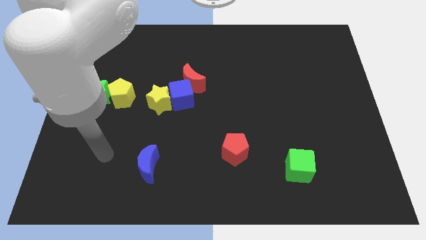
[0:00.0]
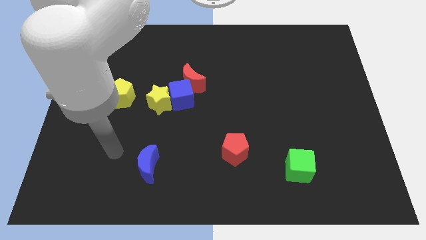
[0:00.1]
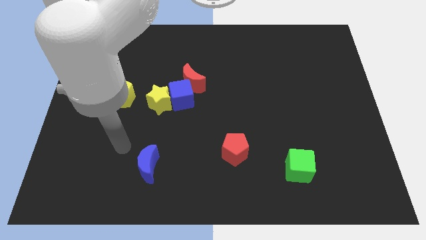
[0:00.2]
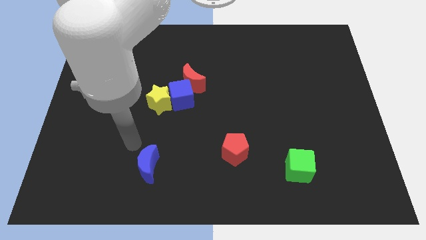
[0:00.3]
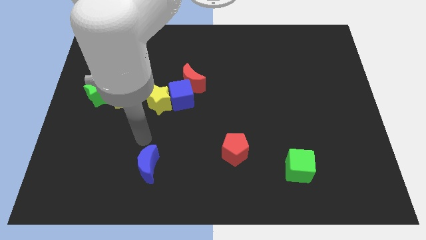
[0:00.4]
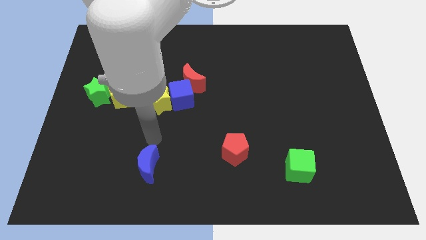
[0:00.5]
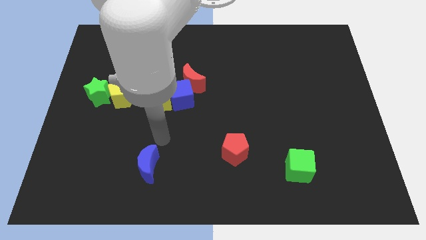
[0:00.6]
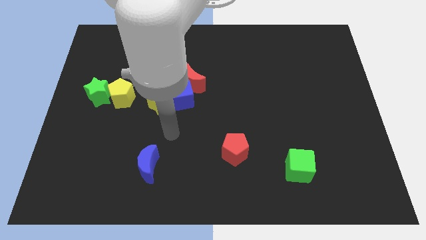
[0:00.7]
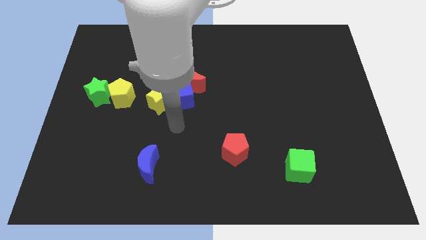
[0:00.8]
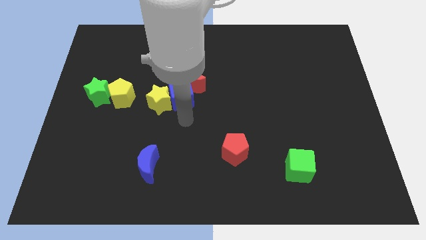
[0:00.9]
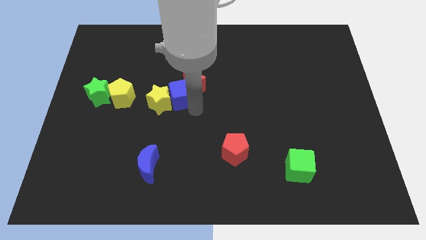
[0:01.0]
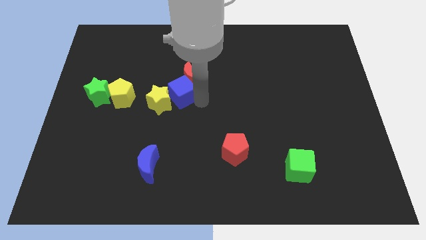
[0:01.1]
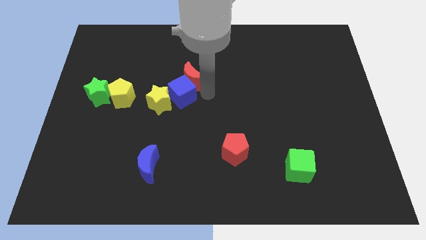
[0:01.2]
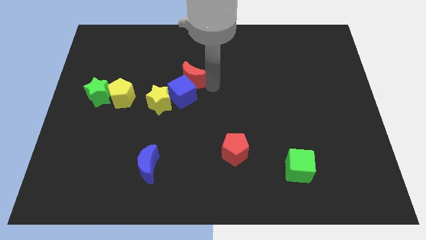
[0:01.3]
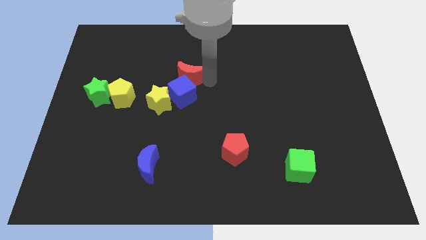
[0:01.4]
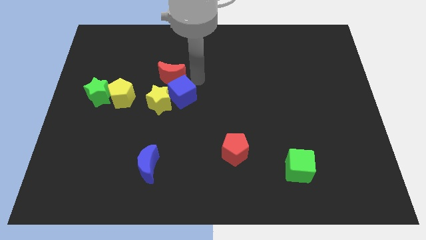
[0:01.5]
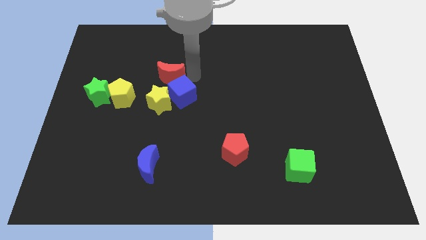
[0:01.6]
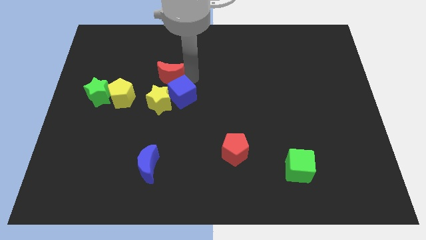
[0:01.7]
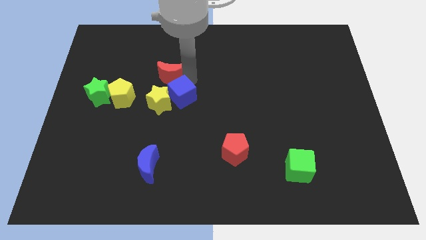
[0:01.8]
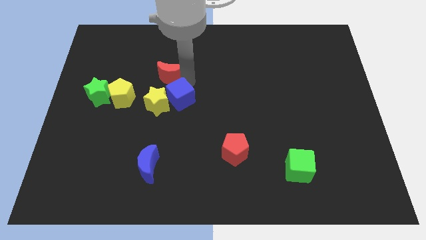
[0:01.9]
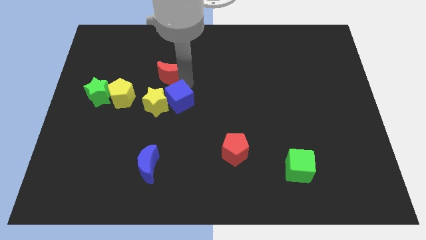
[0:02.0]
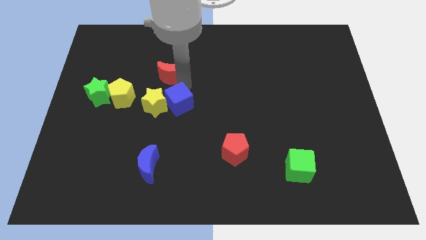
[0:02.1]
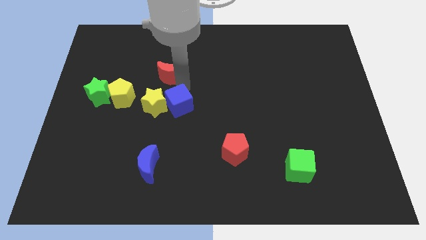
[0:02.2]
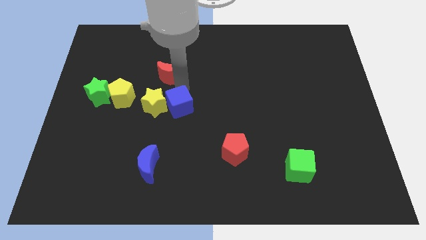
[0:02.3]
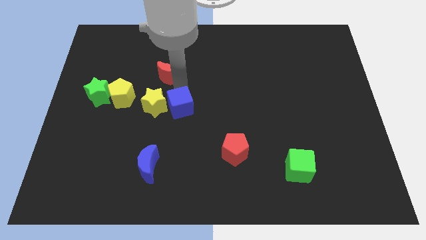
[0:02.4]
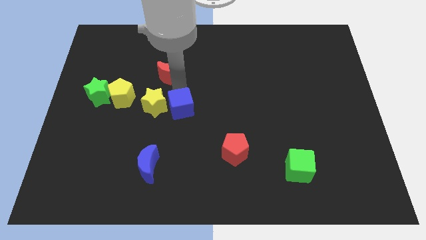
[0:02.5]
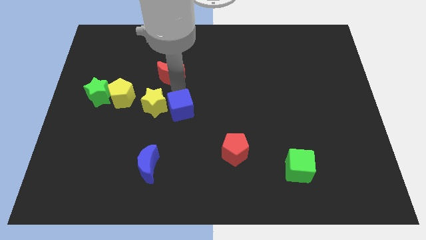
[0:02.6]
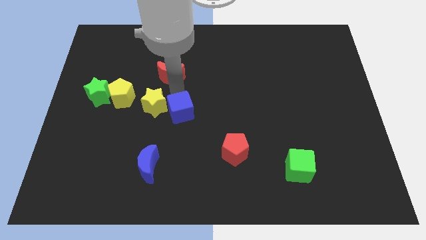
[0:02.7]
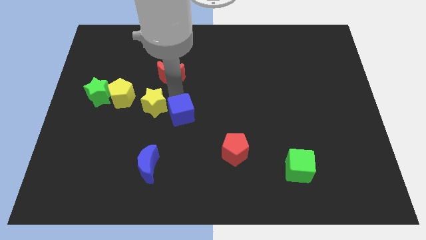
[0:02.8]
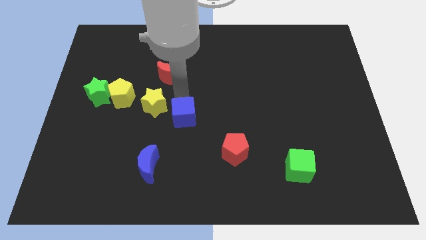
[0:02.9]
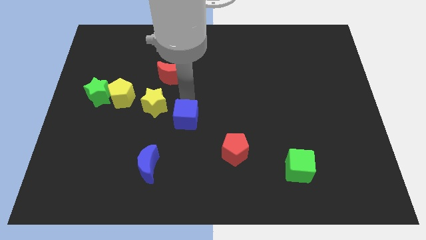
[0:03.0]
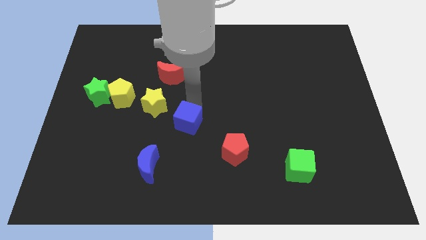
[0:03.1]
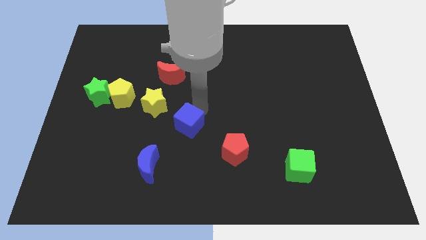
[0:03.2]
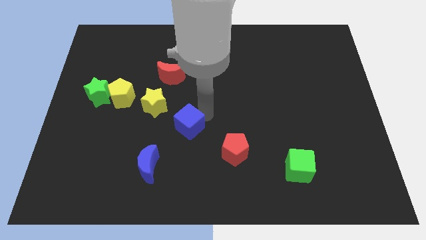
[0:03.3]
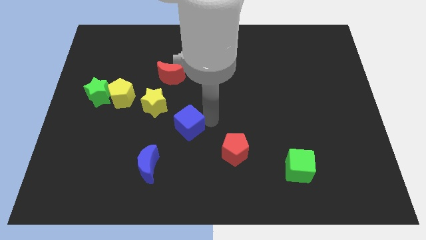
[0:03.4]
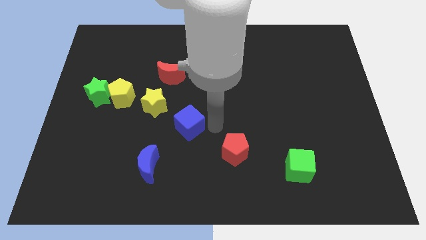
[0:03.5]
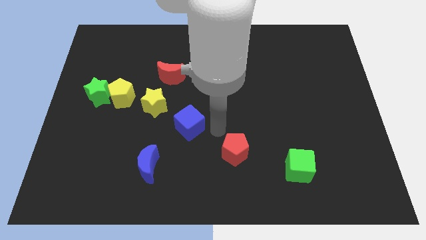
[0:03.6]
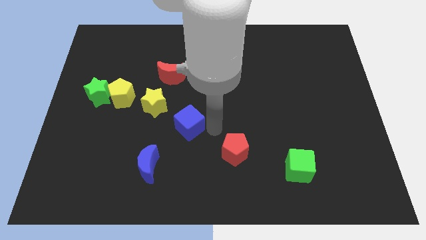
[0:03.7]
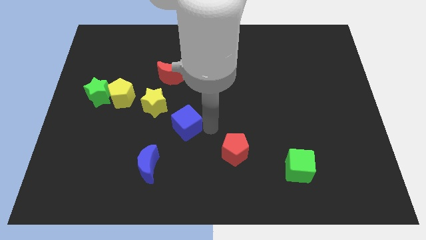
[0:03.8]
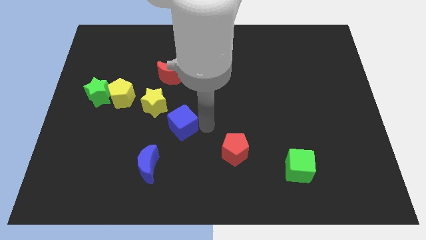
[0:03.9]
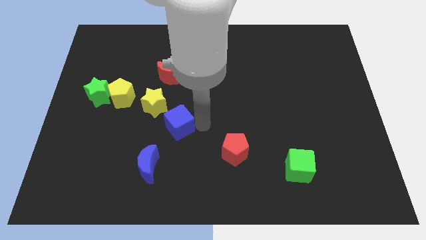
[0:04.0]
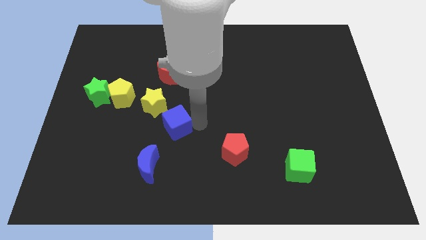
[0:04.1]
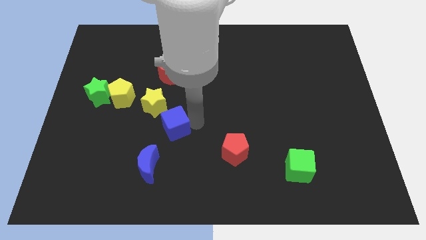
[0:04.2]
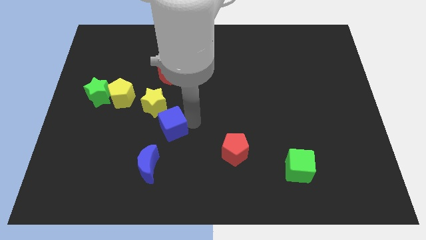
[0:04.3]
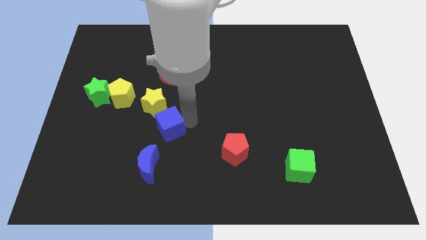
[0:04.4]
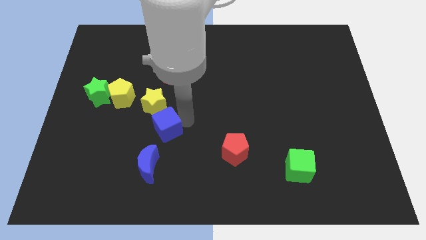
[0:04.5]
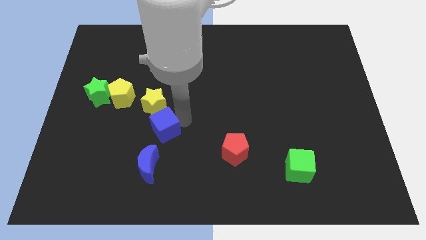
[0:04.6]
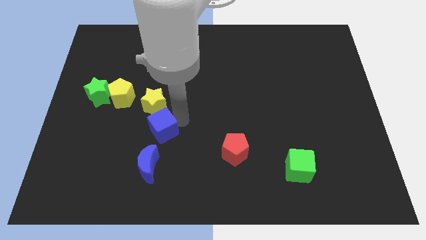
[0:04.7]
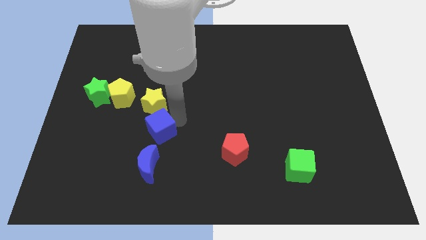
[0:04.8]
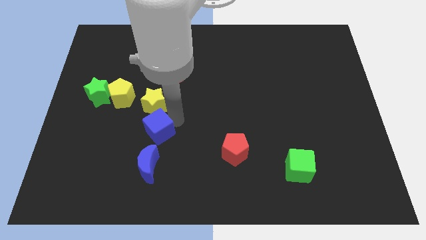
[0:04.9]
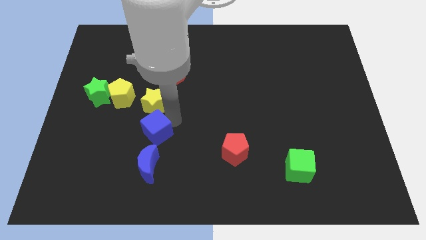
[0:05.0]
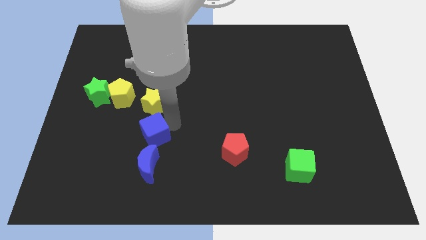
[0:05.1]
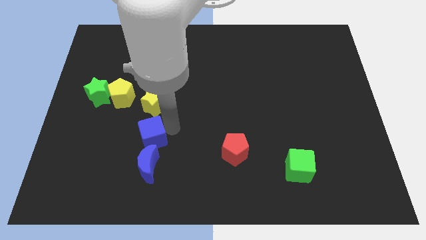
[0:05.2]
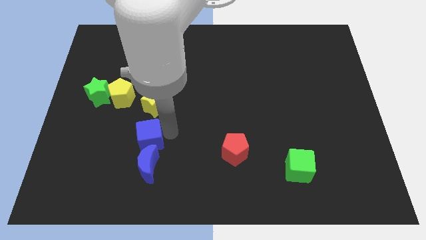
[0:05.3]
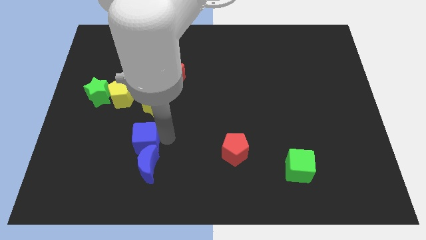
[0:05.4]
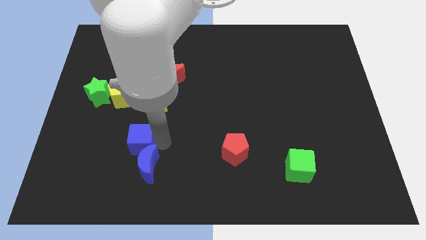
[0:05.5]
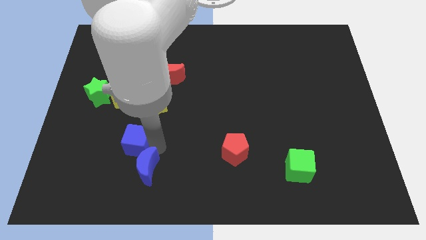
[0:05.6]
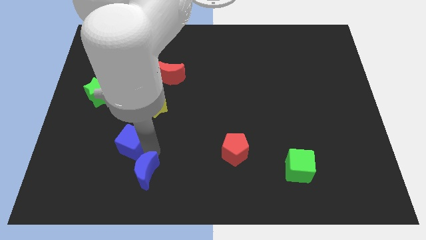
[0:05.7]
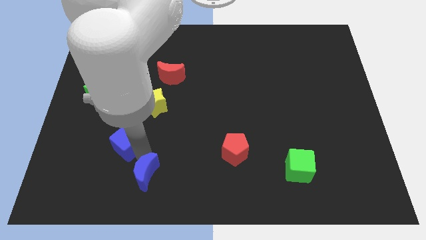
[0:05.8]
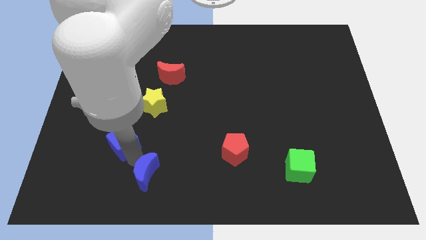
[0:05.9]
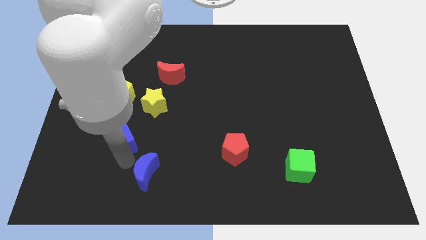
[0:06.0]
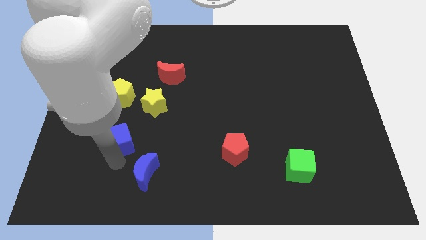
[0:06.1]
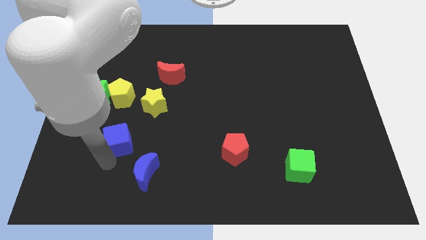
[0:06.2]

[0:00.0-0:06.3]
move the blue cube diagonally down and to the left of the yellow star

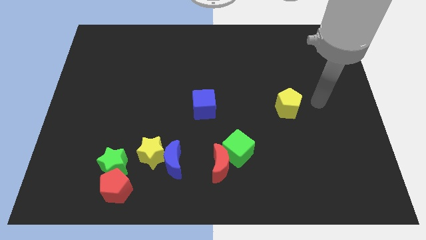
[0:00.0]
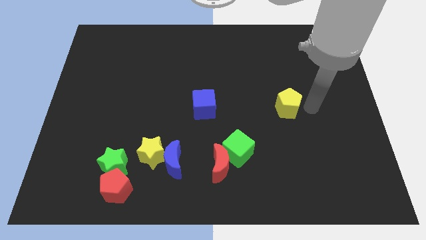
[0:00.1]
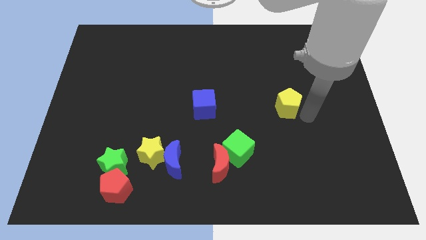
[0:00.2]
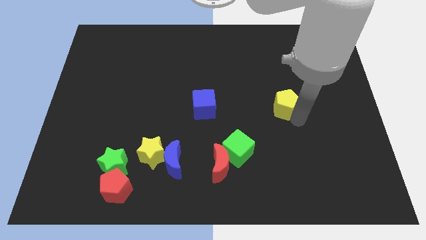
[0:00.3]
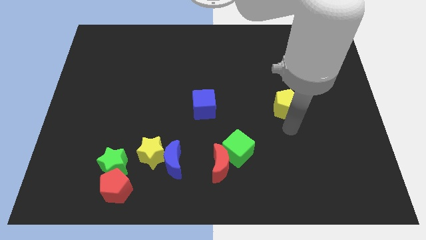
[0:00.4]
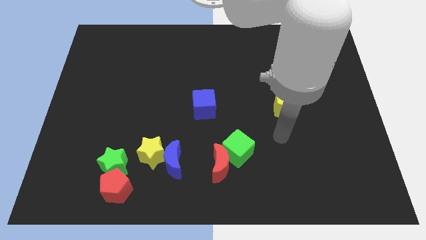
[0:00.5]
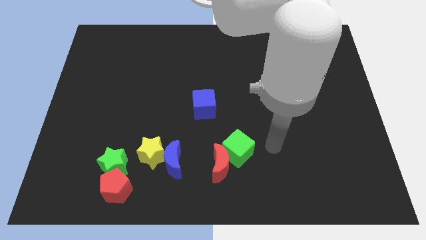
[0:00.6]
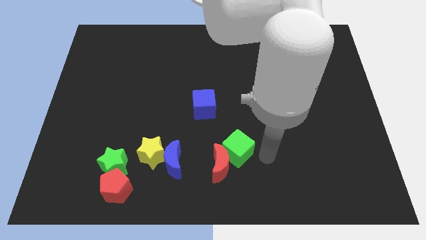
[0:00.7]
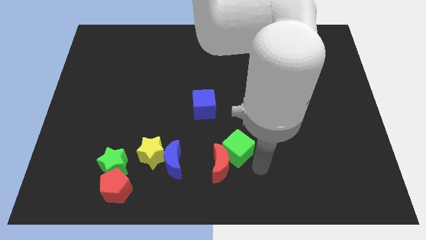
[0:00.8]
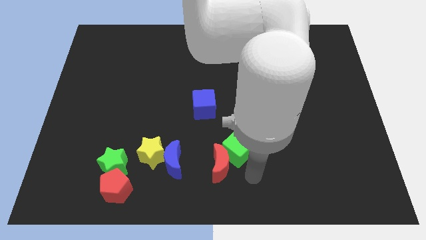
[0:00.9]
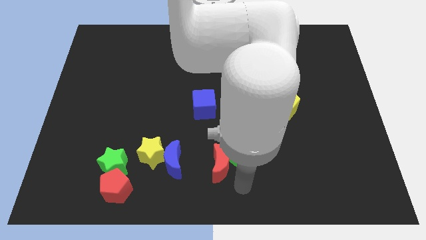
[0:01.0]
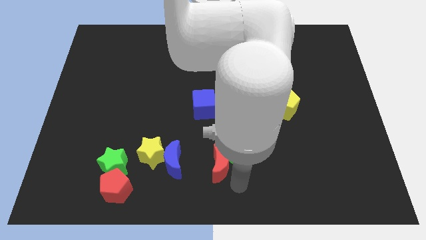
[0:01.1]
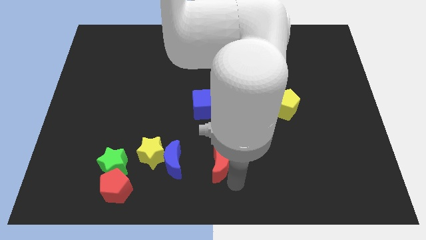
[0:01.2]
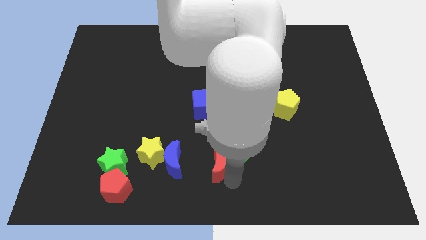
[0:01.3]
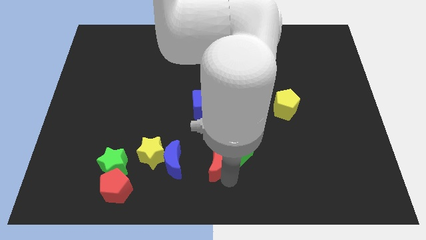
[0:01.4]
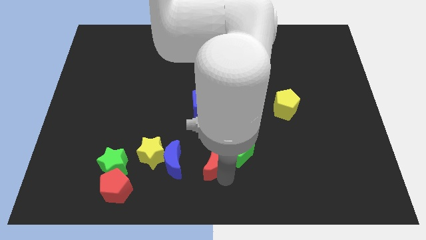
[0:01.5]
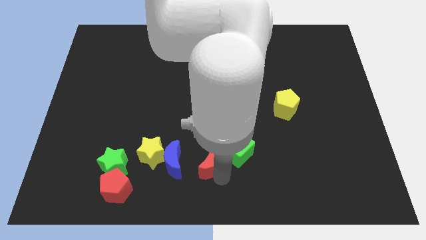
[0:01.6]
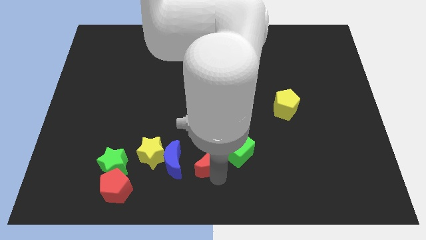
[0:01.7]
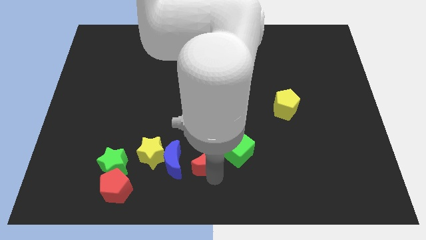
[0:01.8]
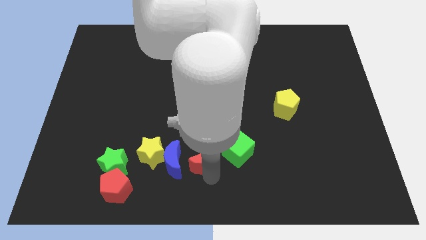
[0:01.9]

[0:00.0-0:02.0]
push the red moon to the top right of the blue moon
